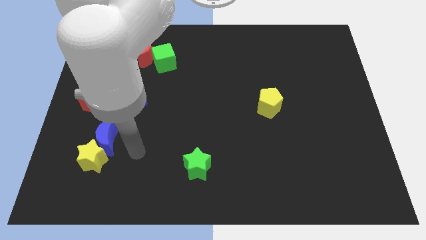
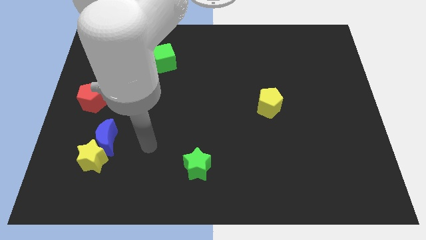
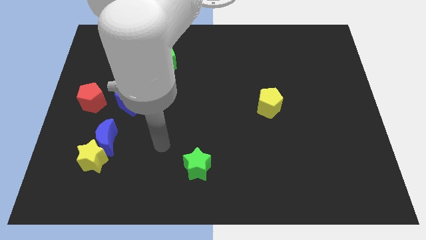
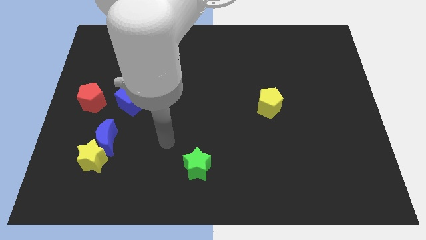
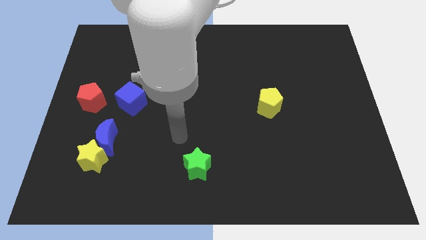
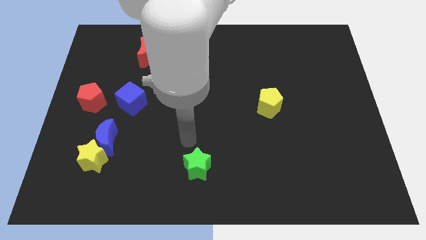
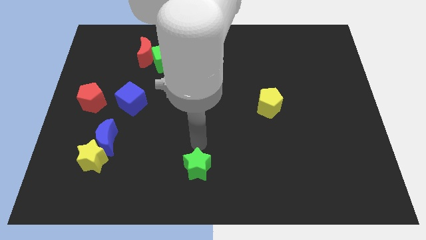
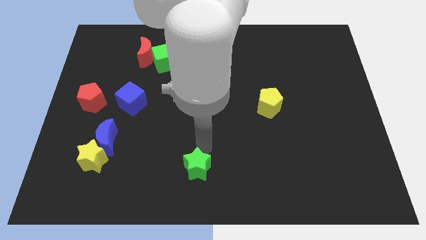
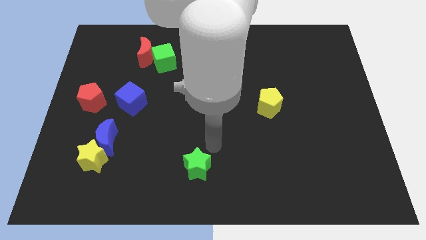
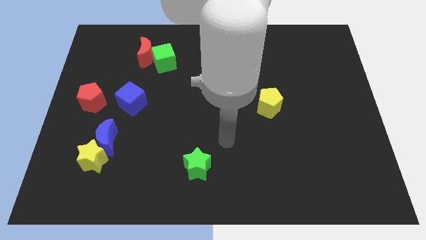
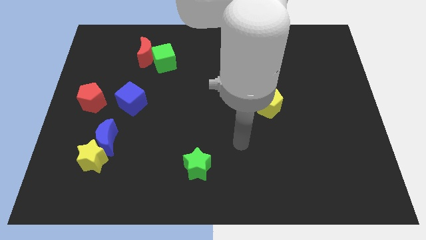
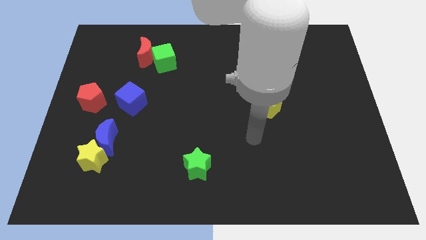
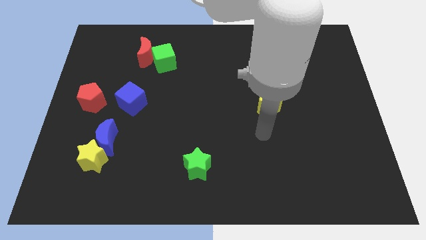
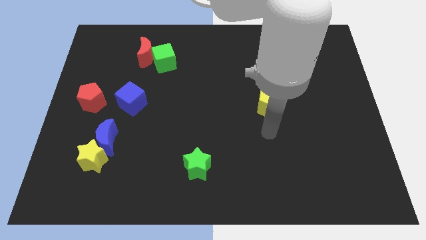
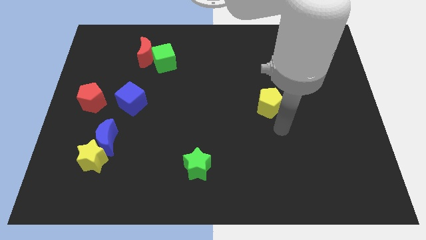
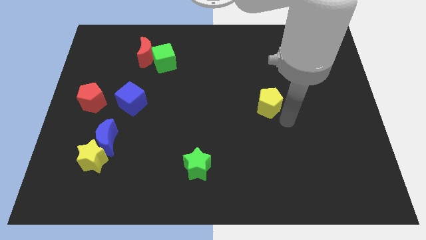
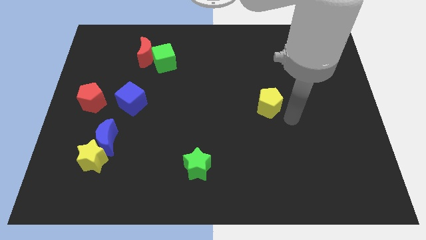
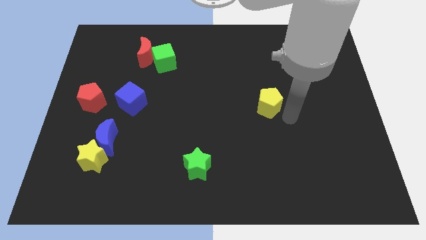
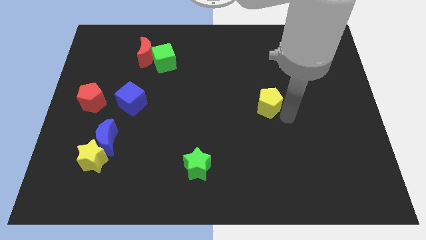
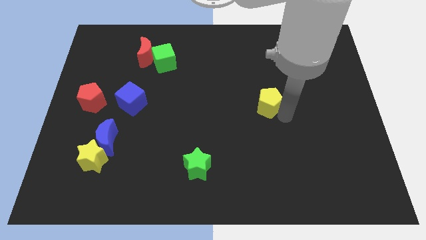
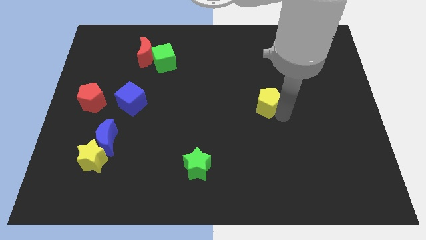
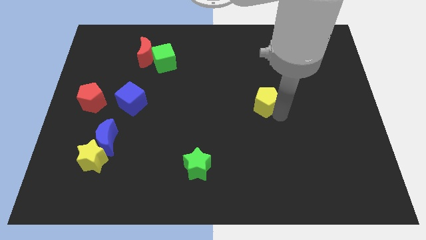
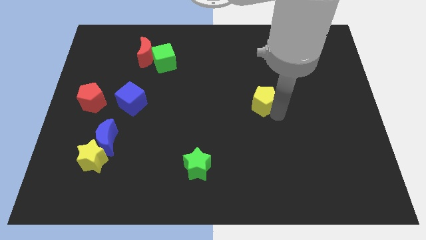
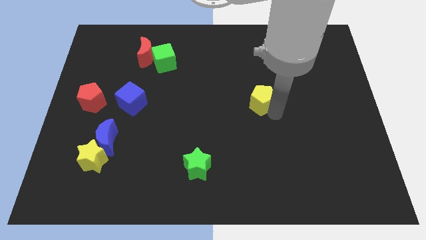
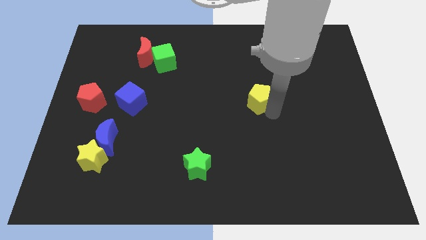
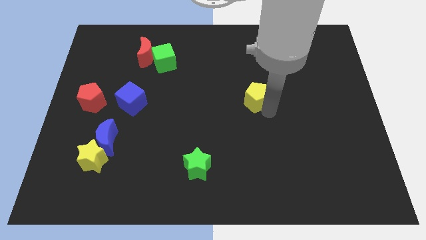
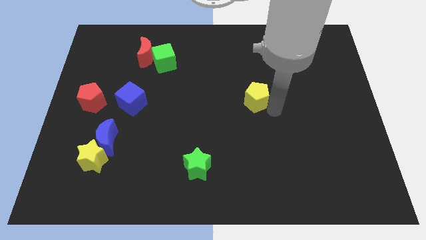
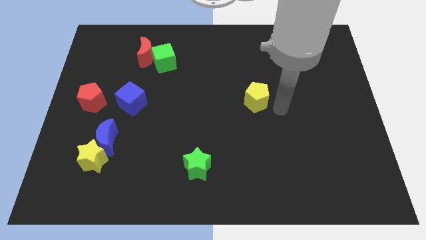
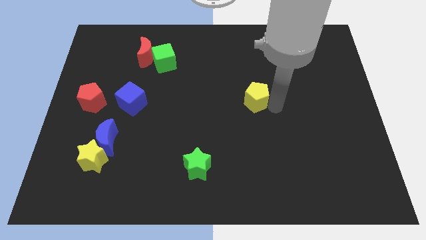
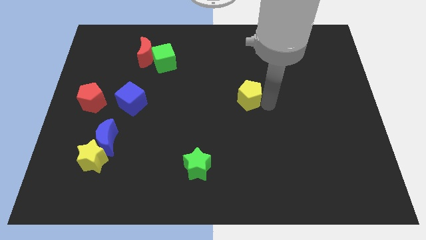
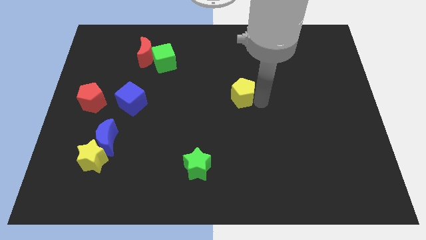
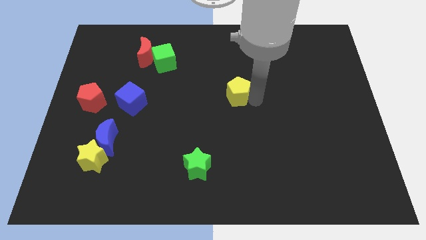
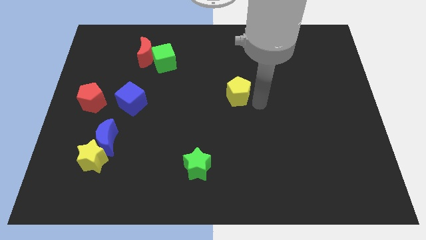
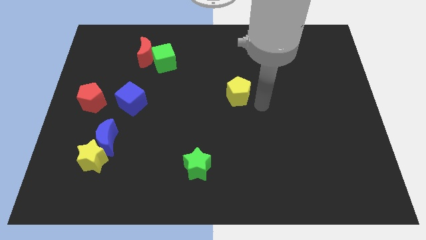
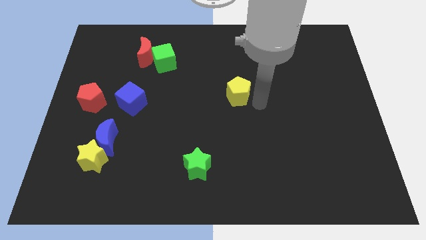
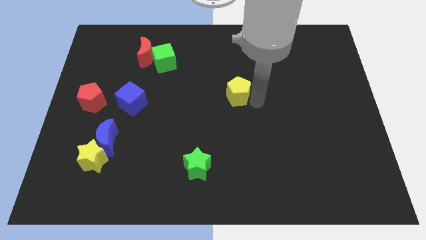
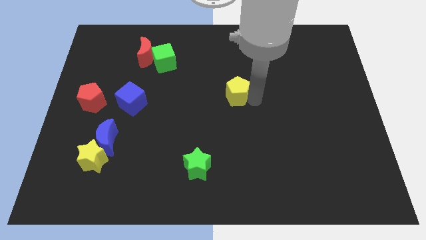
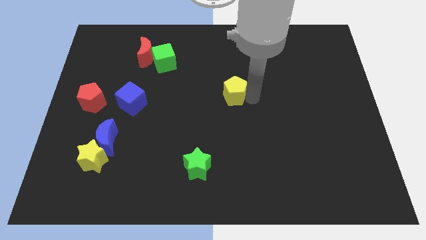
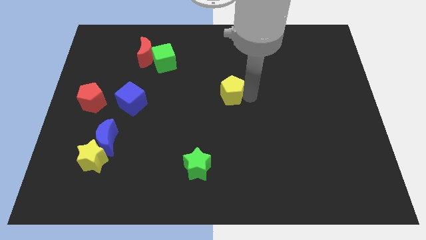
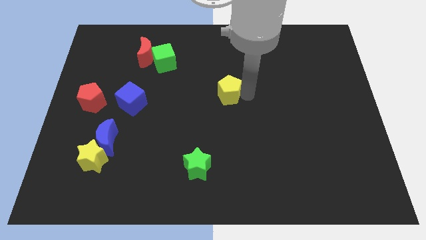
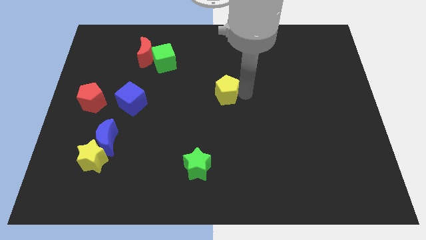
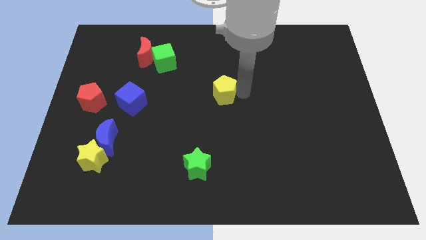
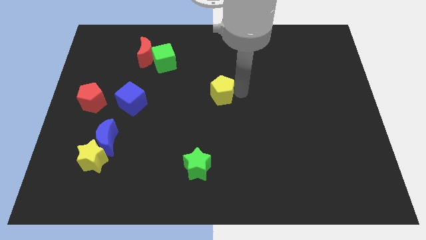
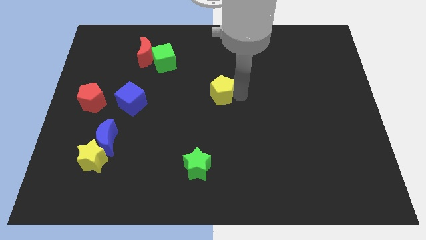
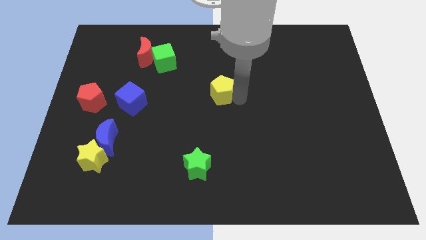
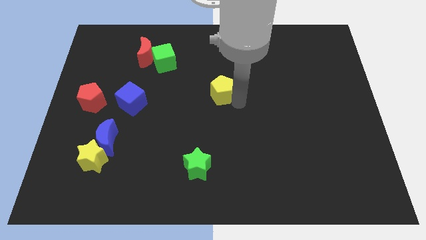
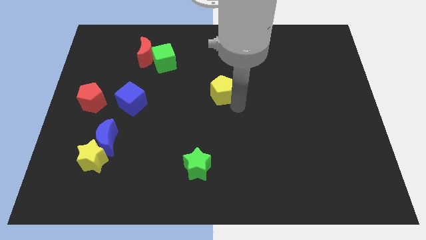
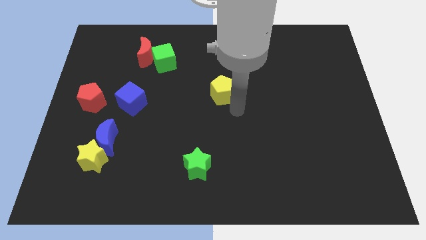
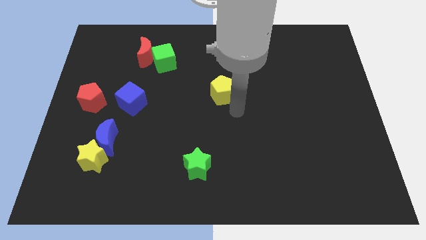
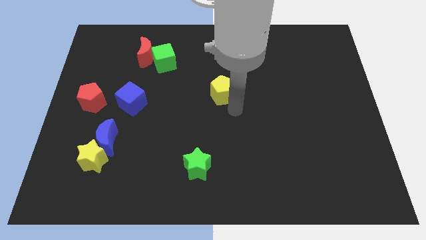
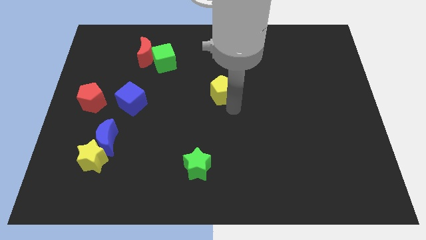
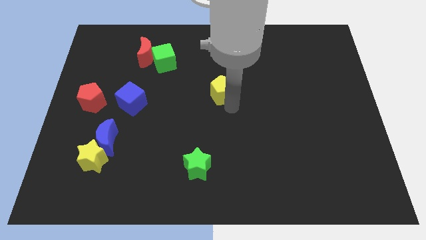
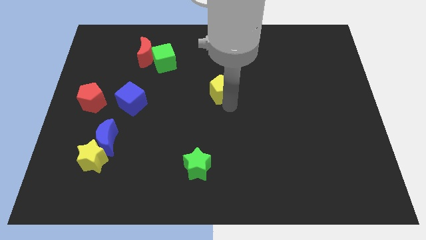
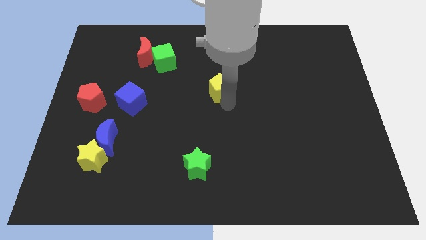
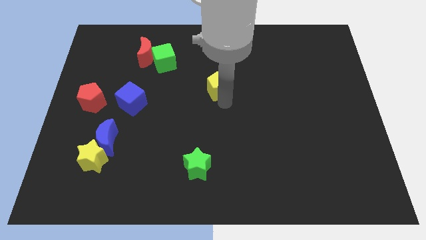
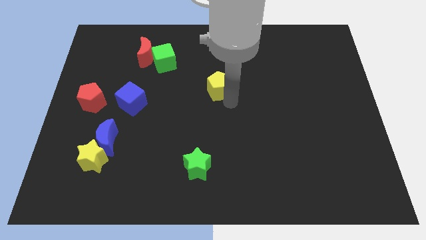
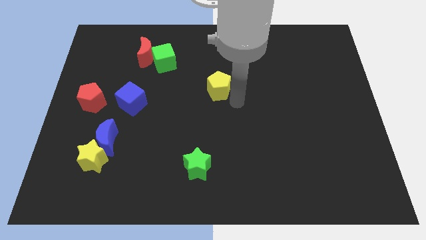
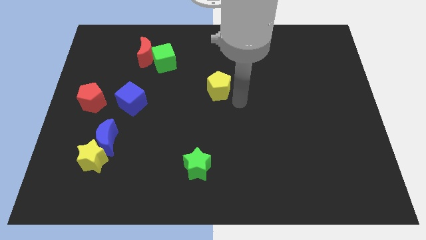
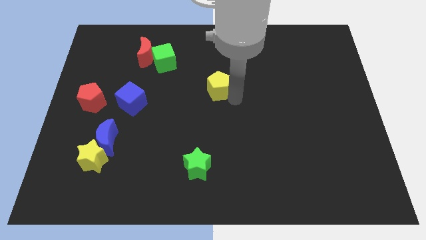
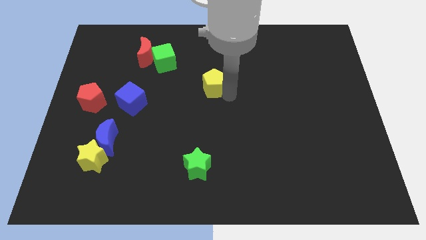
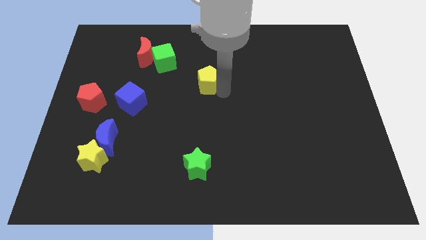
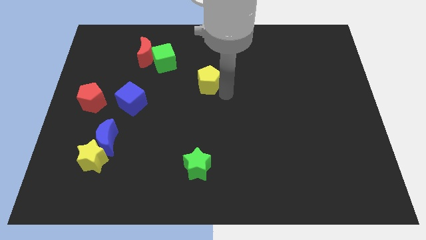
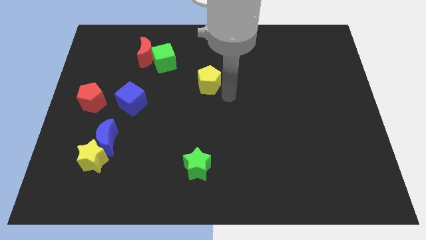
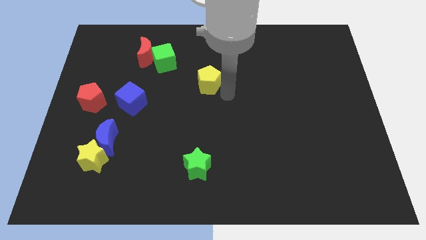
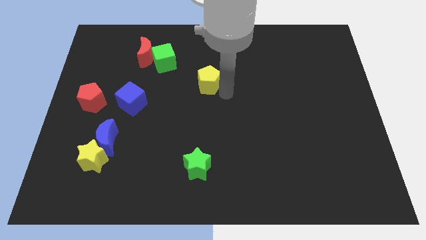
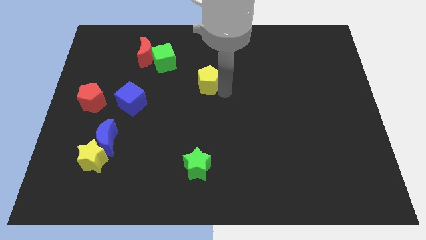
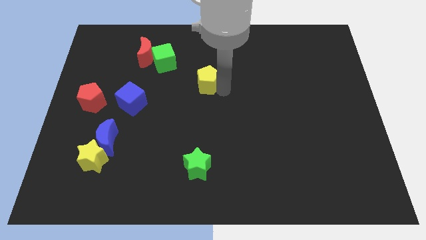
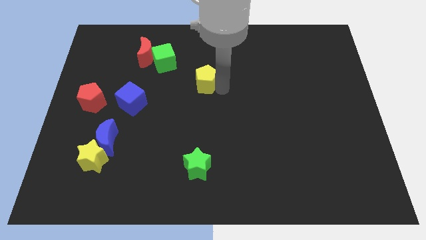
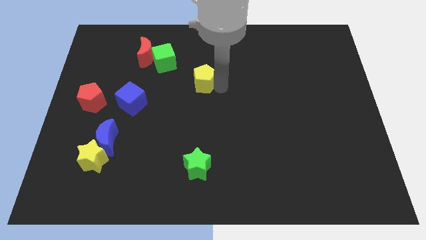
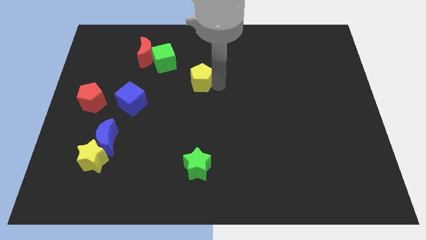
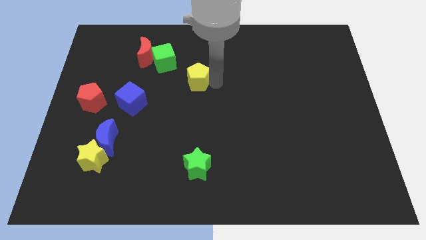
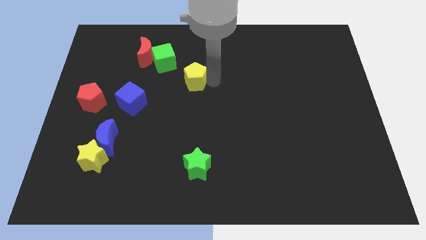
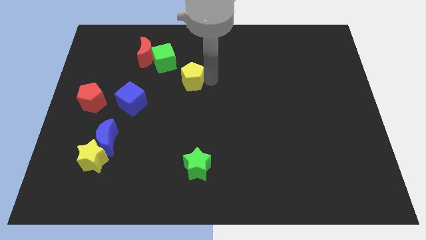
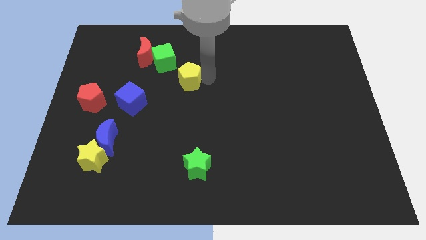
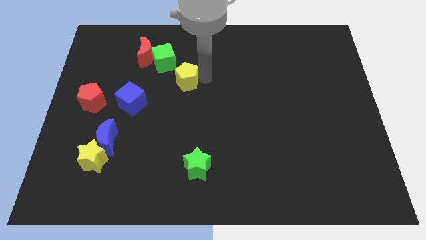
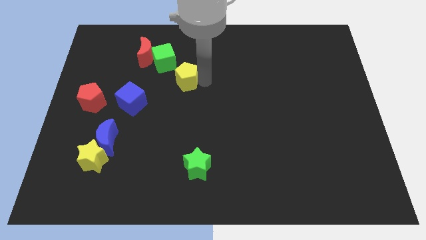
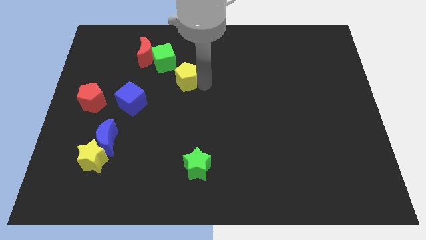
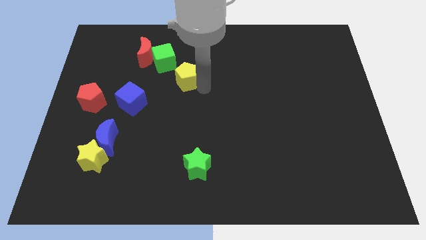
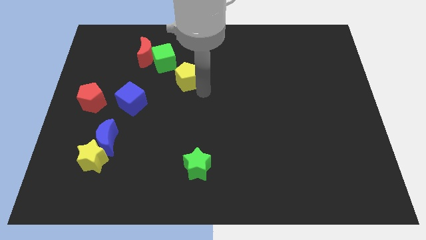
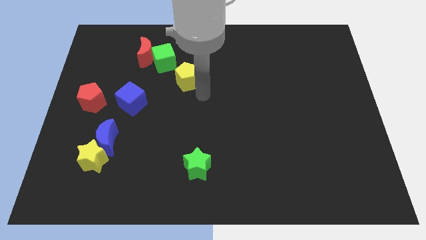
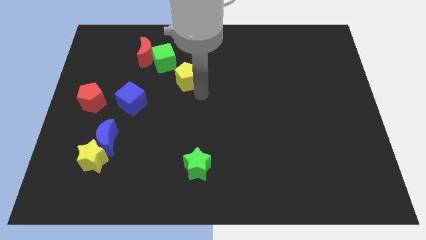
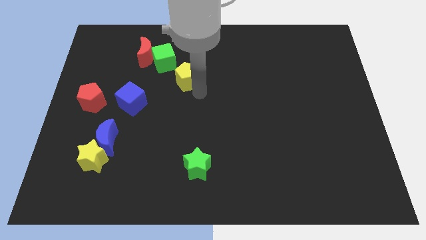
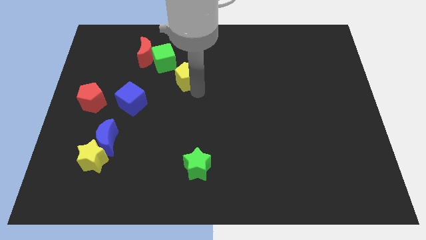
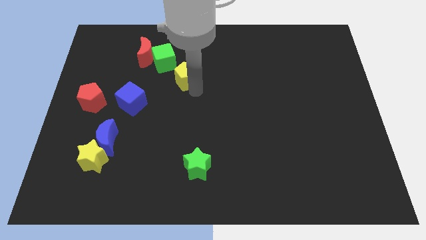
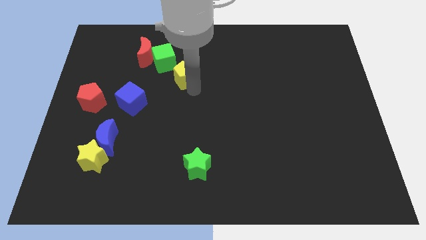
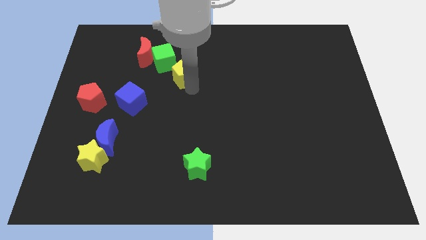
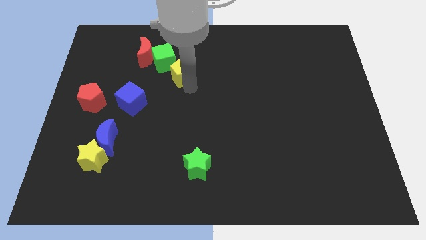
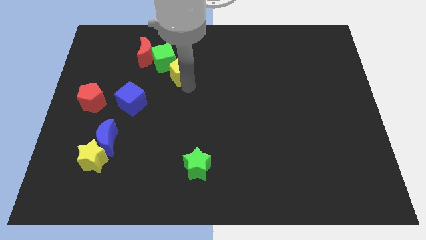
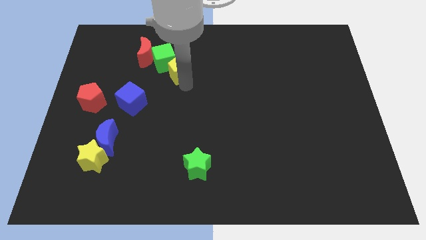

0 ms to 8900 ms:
put the yellow pentagon close to the green cube
